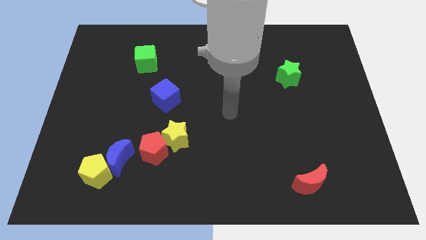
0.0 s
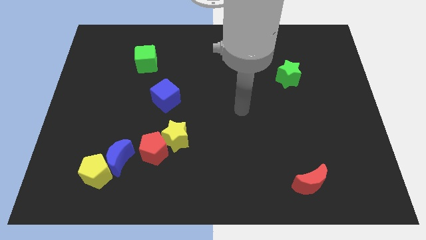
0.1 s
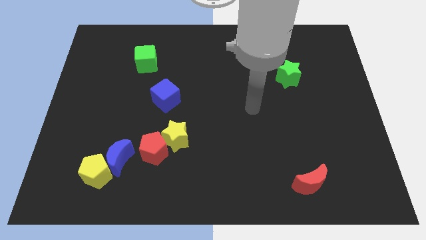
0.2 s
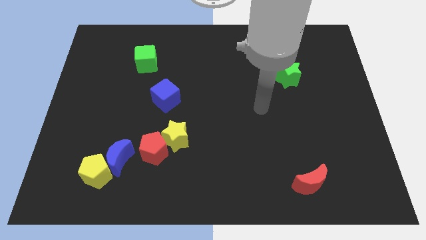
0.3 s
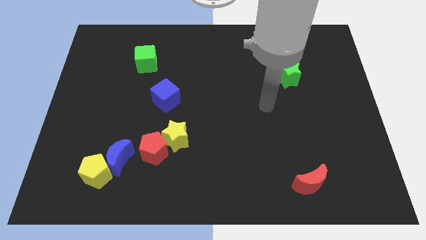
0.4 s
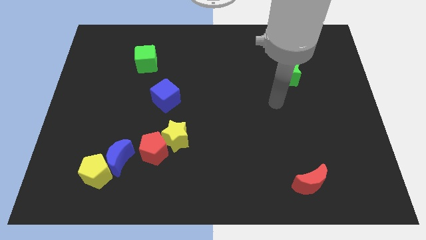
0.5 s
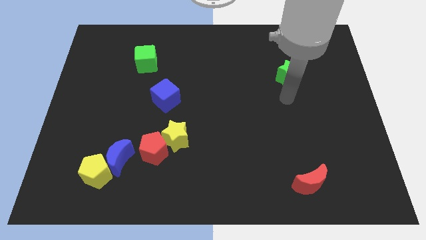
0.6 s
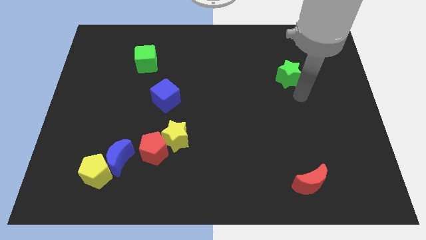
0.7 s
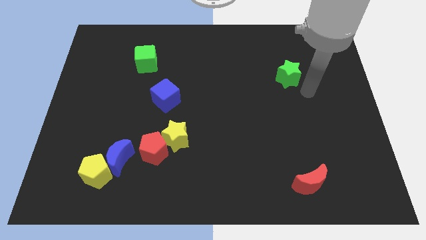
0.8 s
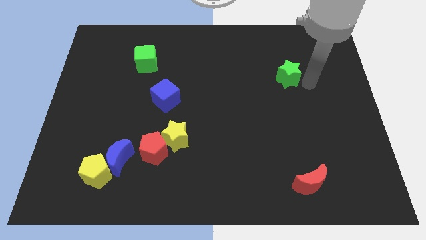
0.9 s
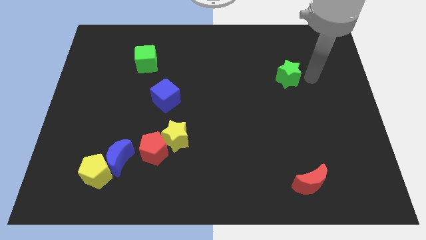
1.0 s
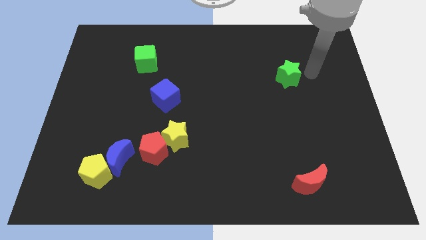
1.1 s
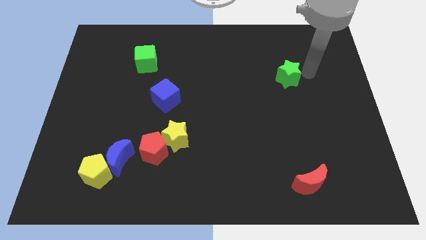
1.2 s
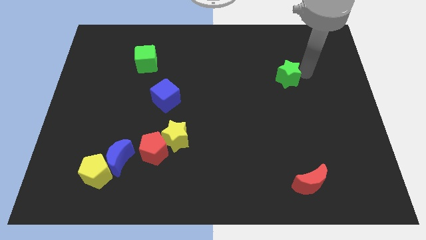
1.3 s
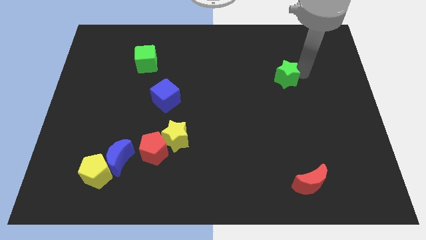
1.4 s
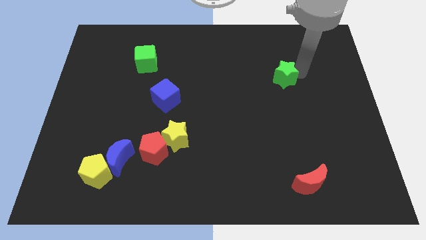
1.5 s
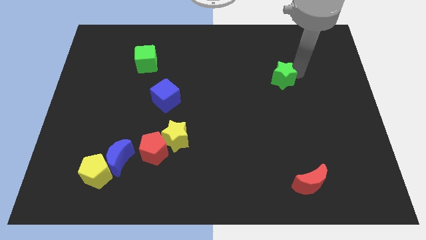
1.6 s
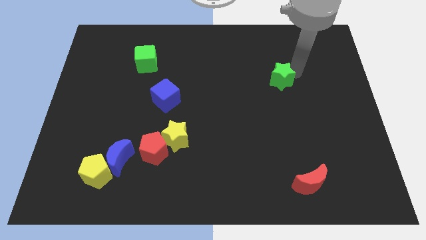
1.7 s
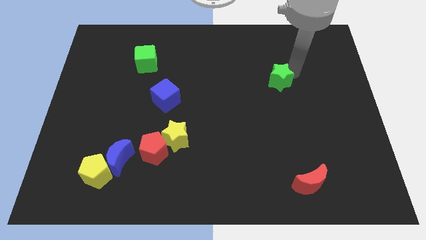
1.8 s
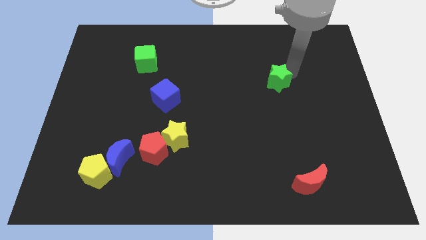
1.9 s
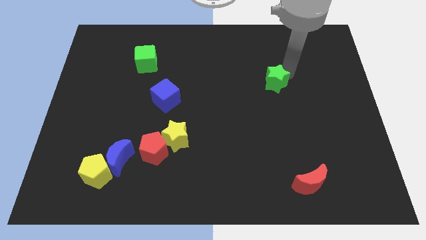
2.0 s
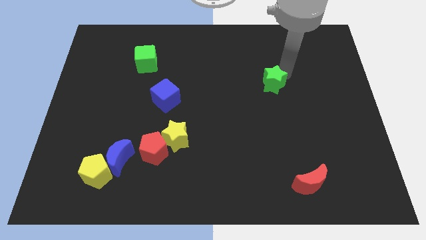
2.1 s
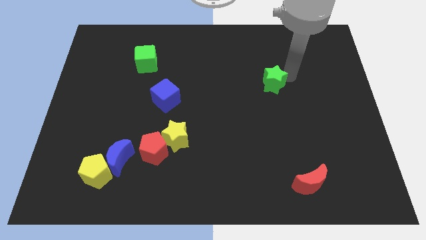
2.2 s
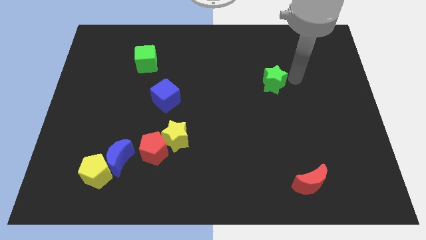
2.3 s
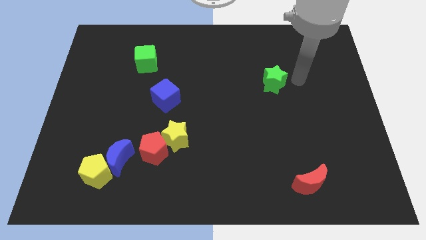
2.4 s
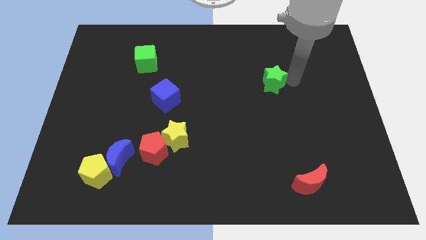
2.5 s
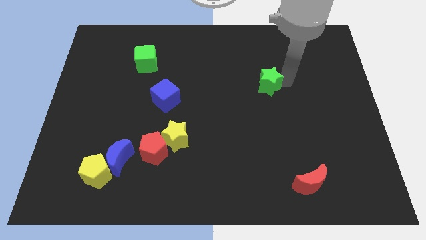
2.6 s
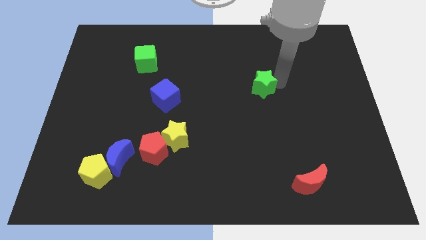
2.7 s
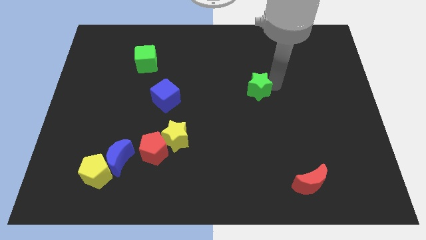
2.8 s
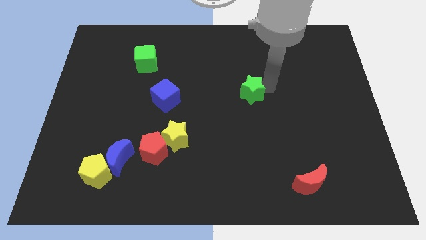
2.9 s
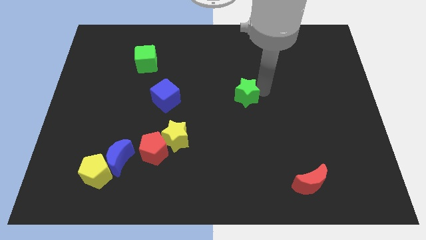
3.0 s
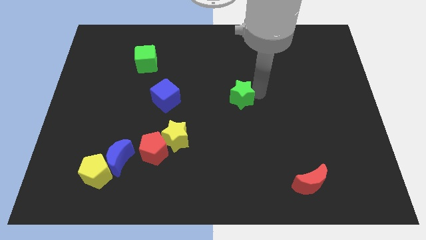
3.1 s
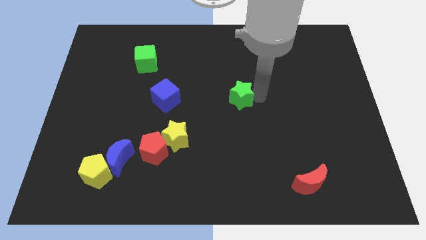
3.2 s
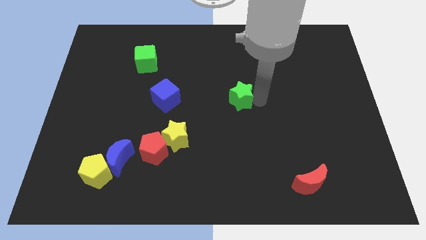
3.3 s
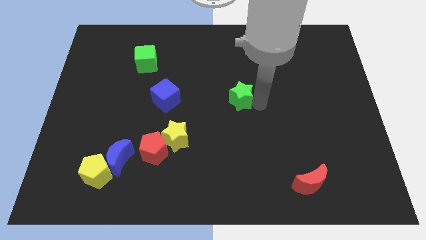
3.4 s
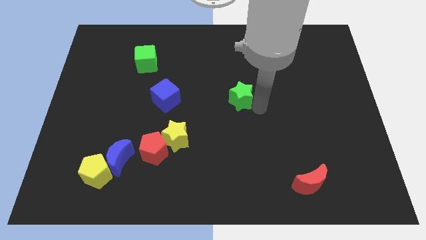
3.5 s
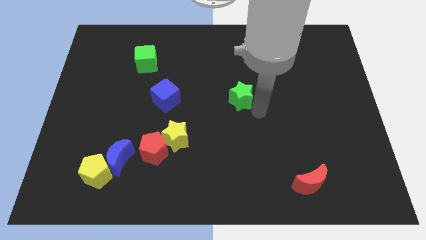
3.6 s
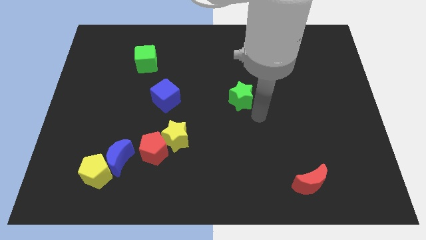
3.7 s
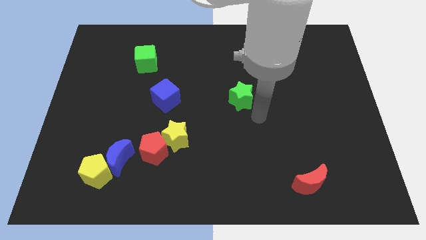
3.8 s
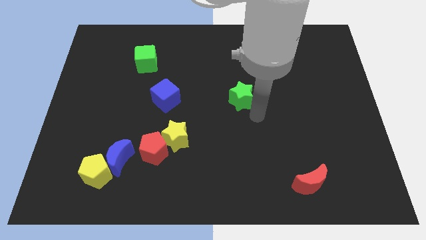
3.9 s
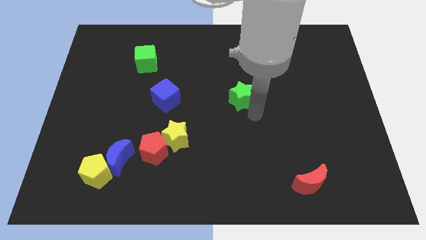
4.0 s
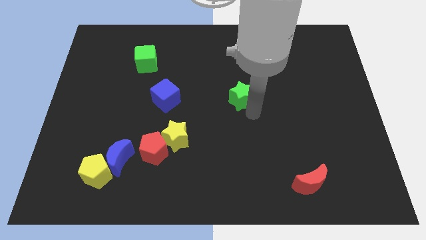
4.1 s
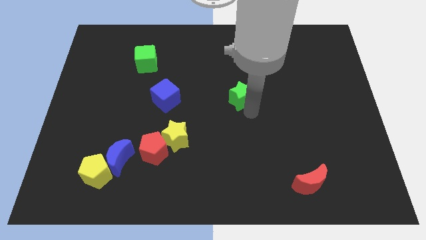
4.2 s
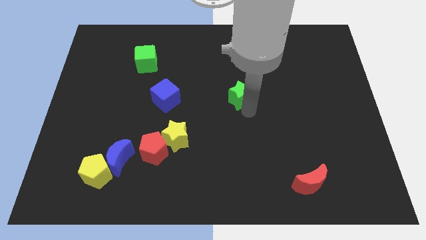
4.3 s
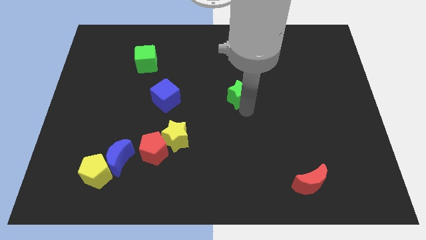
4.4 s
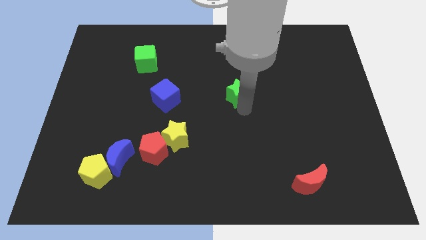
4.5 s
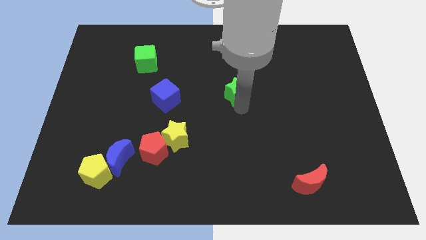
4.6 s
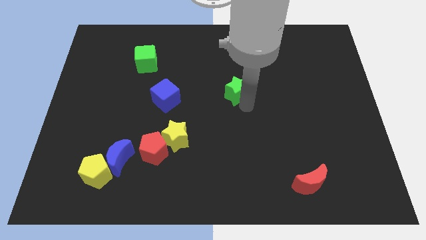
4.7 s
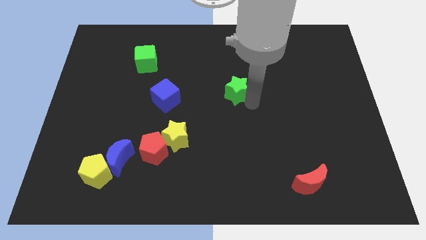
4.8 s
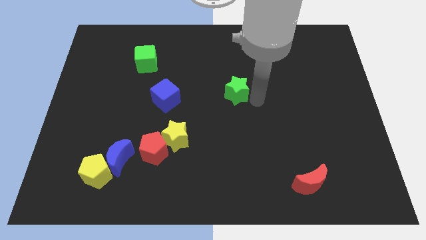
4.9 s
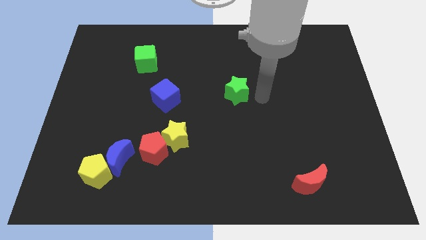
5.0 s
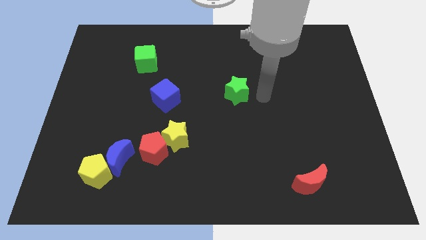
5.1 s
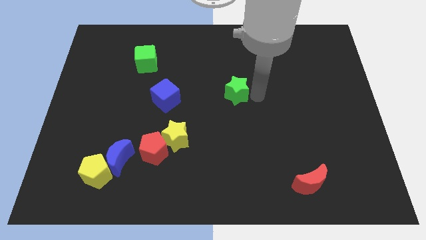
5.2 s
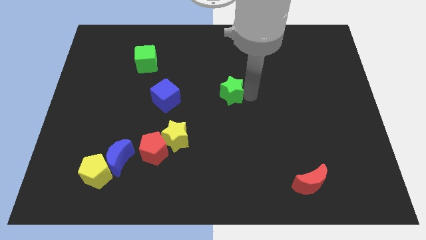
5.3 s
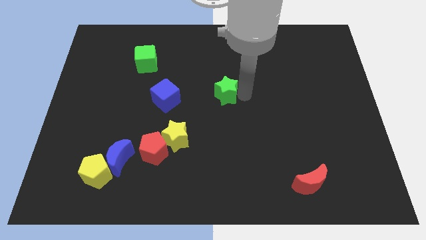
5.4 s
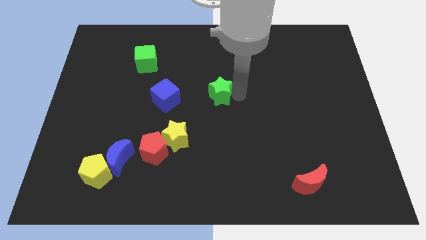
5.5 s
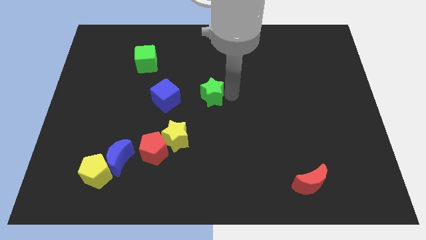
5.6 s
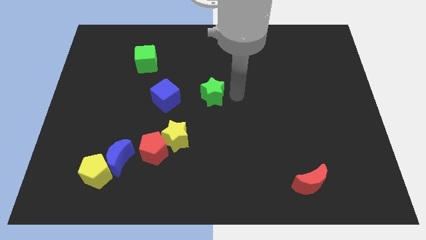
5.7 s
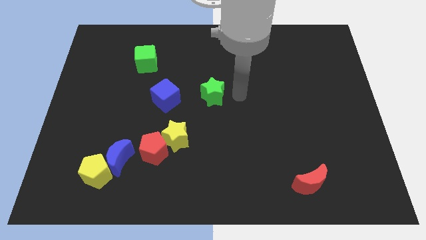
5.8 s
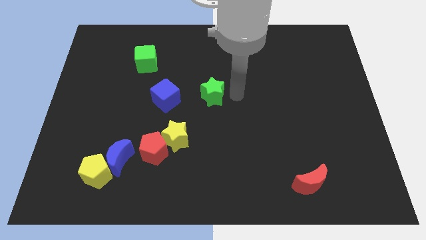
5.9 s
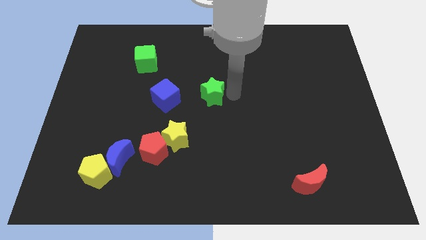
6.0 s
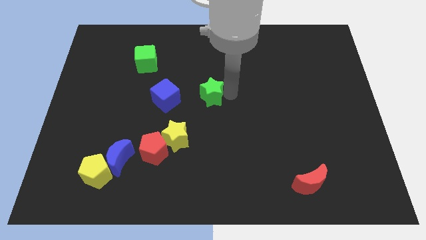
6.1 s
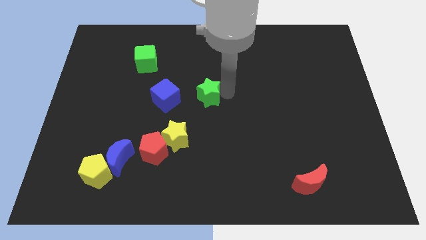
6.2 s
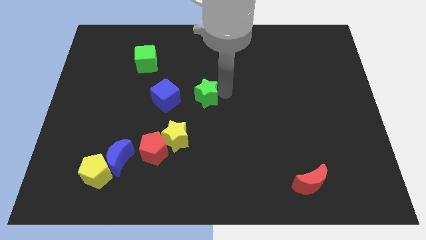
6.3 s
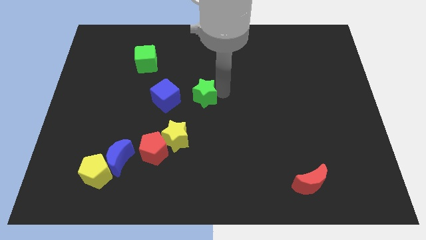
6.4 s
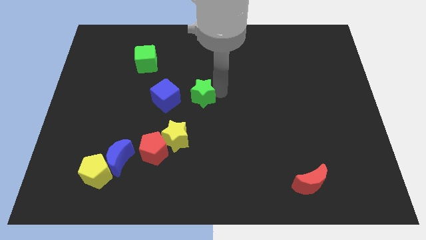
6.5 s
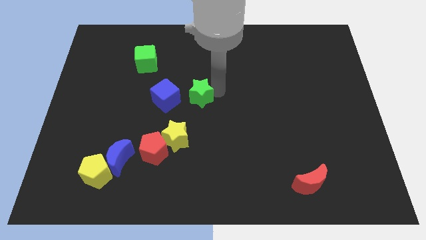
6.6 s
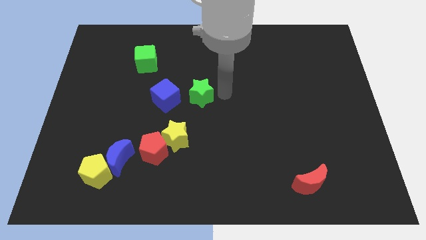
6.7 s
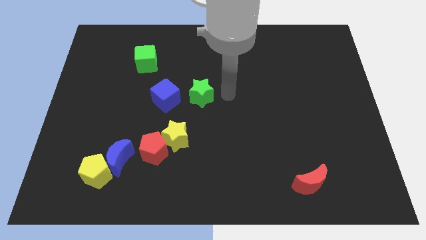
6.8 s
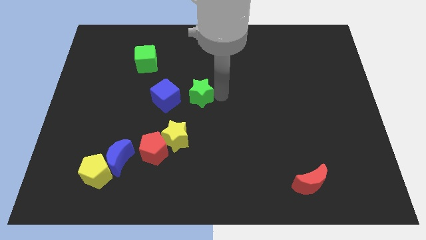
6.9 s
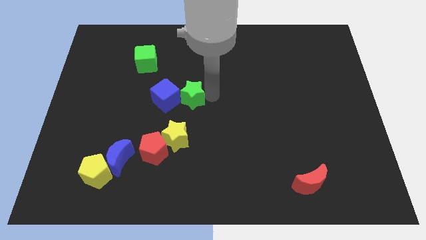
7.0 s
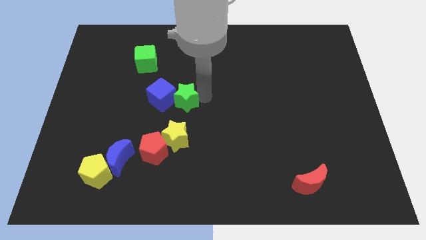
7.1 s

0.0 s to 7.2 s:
slide the green star towards the blue cube
